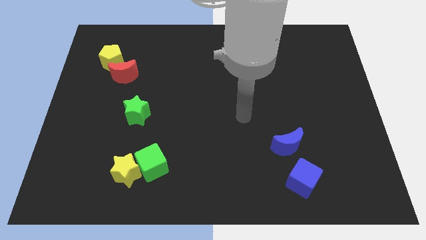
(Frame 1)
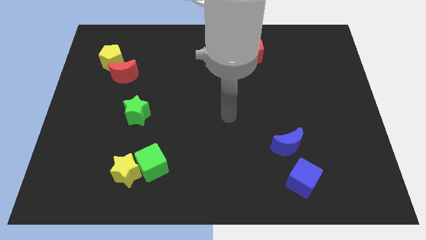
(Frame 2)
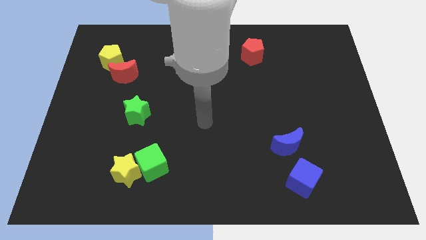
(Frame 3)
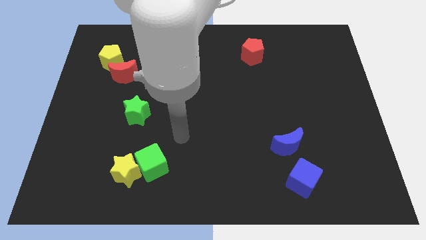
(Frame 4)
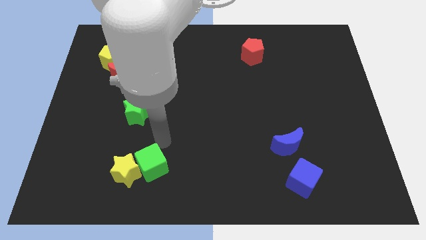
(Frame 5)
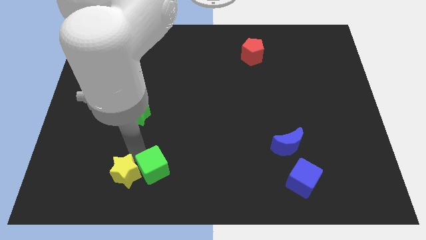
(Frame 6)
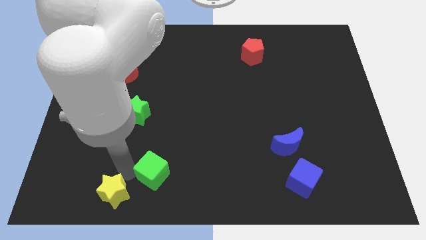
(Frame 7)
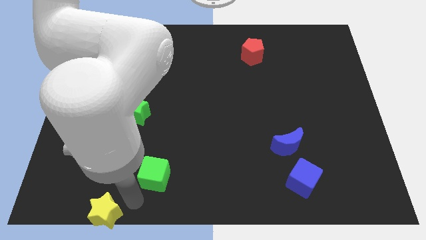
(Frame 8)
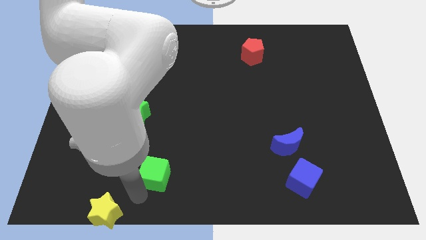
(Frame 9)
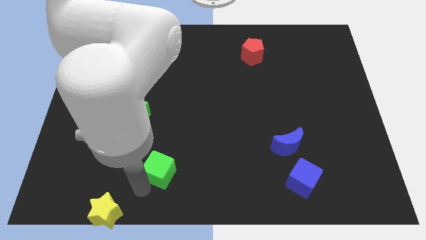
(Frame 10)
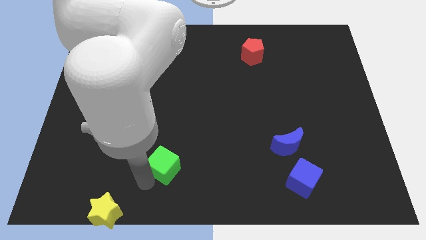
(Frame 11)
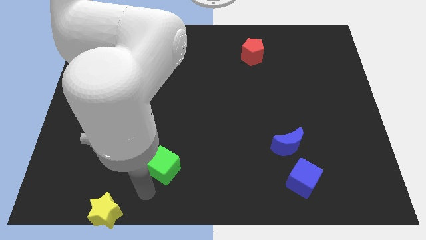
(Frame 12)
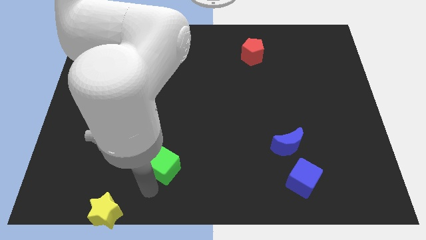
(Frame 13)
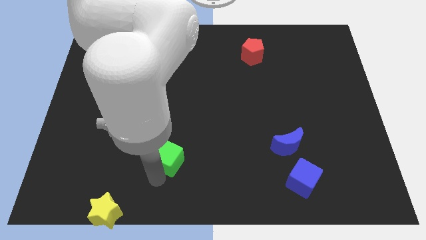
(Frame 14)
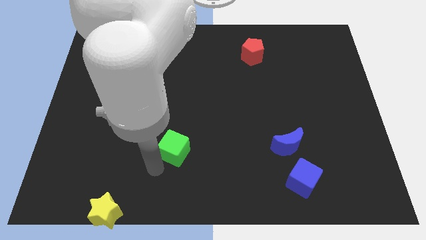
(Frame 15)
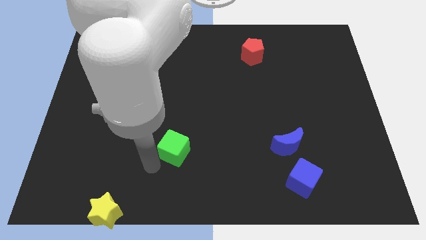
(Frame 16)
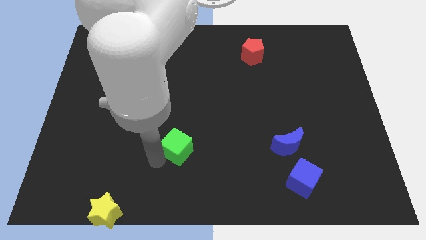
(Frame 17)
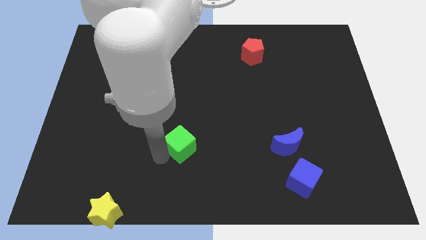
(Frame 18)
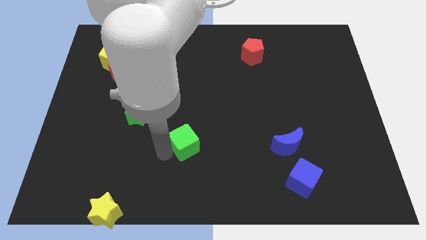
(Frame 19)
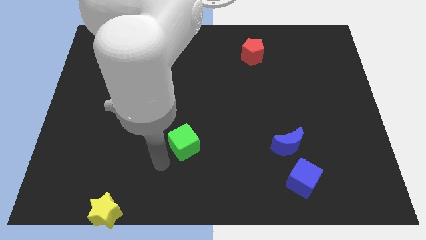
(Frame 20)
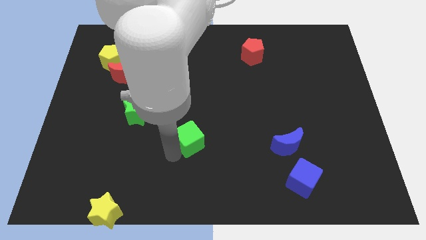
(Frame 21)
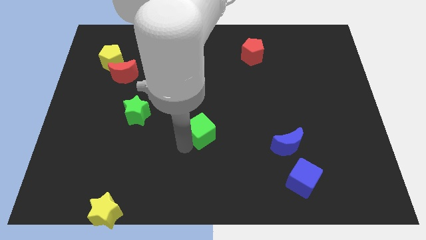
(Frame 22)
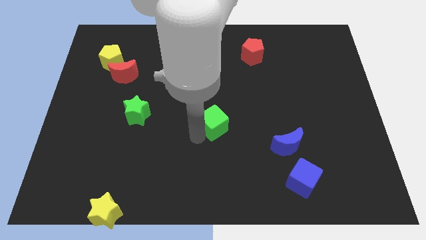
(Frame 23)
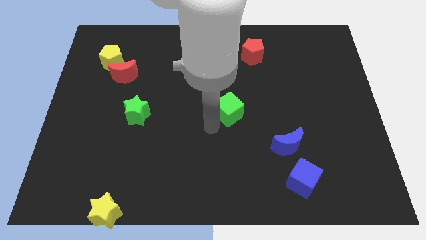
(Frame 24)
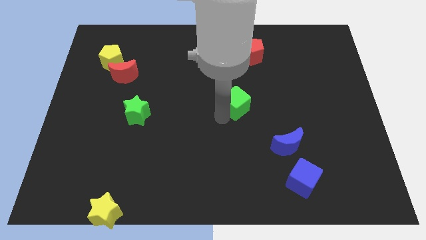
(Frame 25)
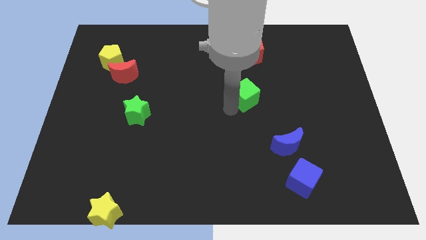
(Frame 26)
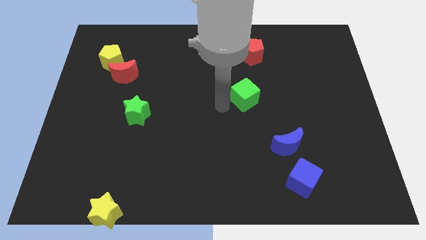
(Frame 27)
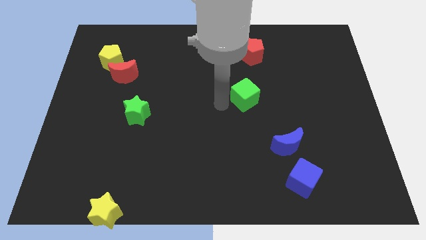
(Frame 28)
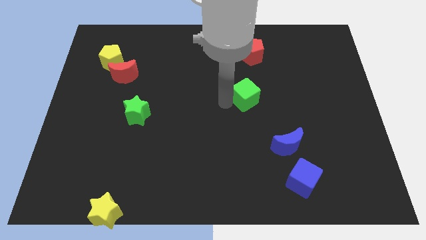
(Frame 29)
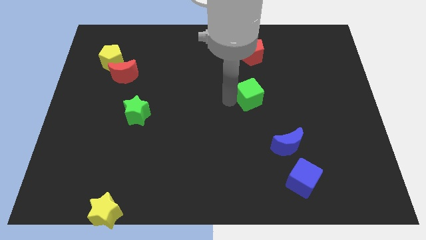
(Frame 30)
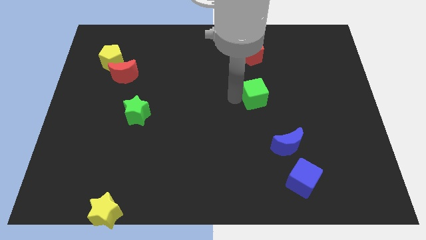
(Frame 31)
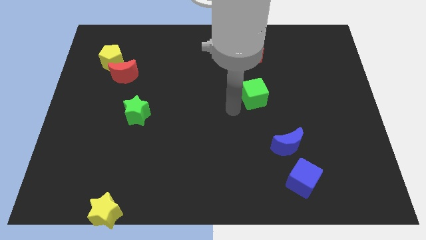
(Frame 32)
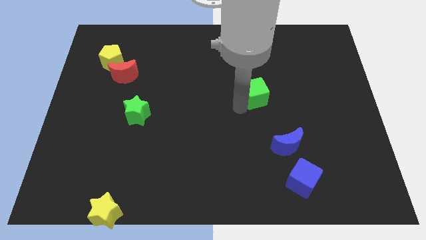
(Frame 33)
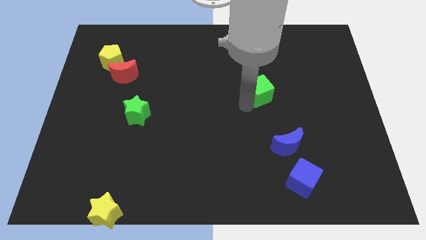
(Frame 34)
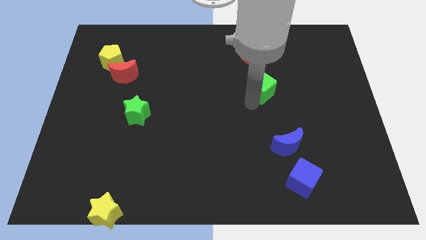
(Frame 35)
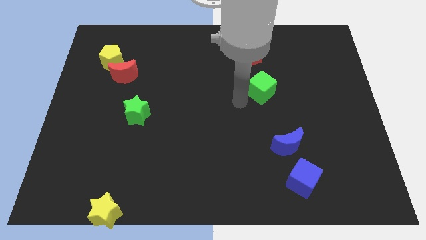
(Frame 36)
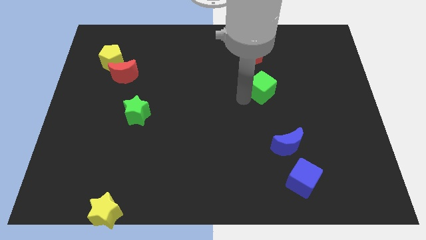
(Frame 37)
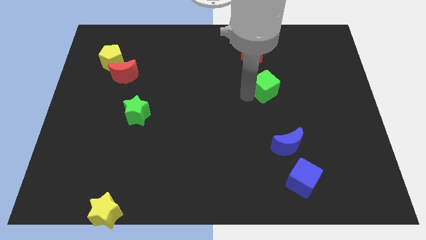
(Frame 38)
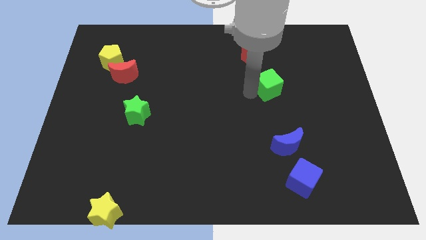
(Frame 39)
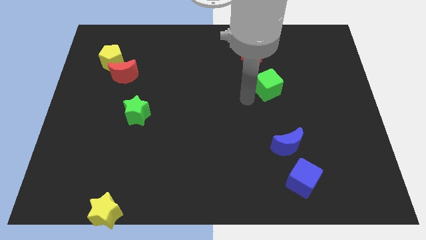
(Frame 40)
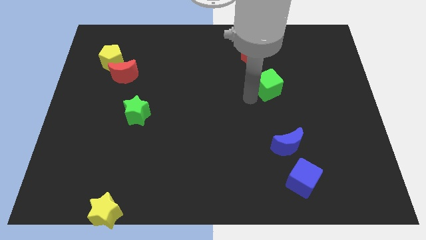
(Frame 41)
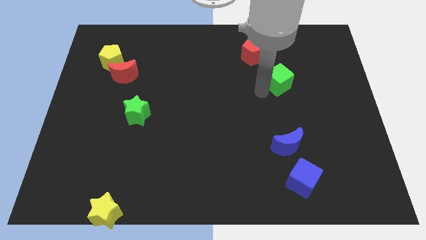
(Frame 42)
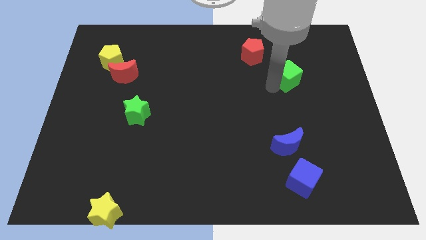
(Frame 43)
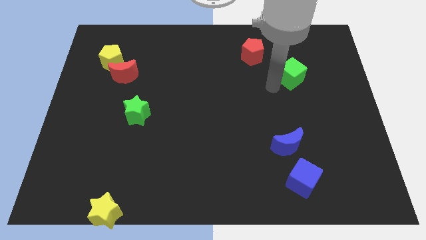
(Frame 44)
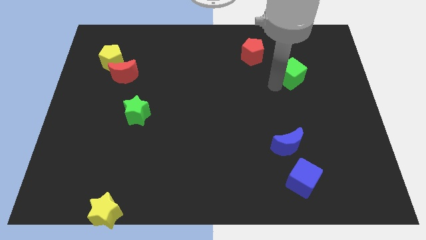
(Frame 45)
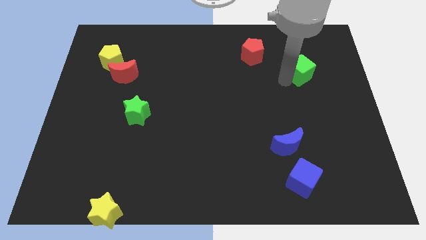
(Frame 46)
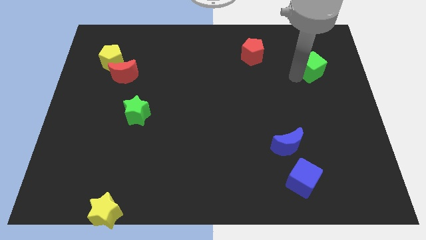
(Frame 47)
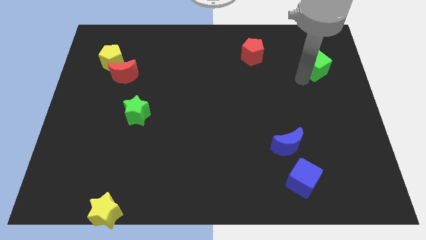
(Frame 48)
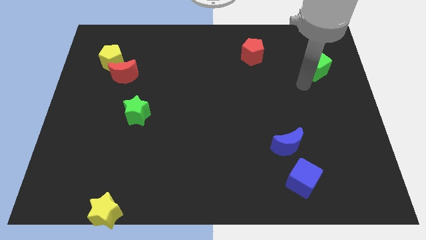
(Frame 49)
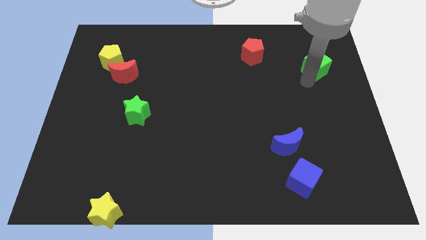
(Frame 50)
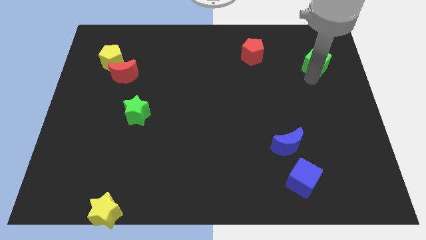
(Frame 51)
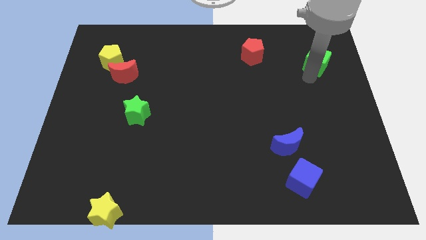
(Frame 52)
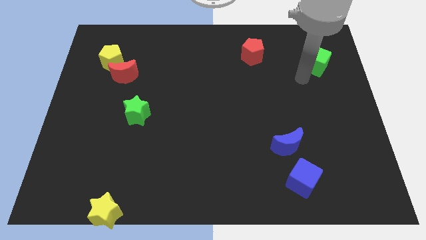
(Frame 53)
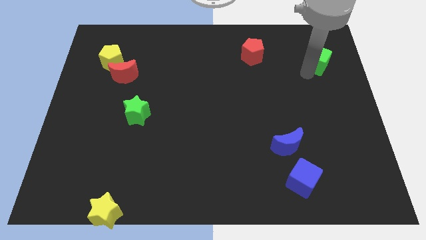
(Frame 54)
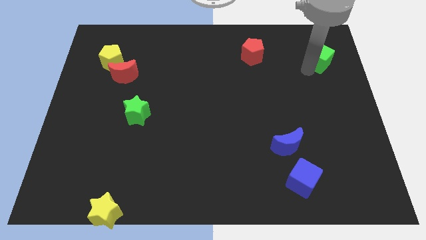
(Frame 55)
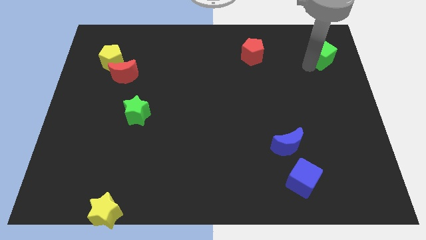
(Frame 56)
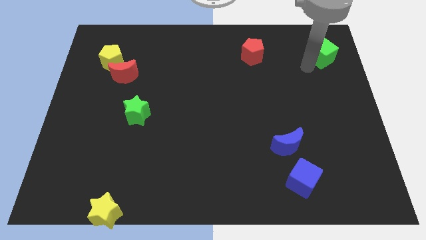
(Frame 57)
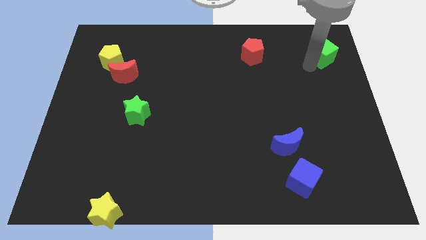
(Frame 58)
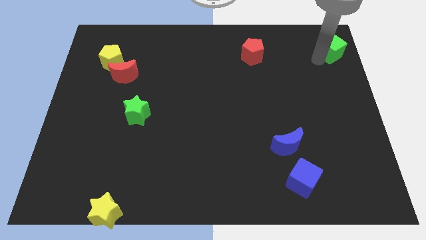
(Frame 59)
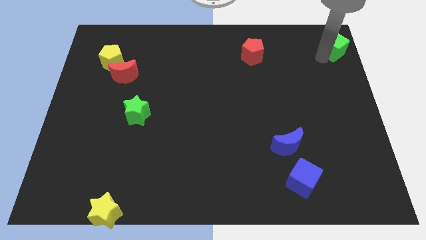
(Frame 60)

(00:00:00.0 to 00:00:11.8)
put the green cube to the upper right corner
